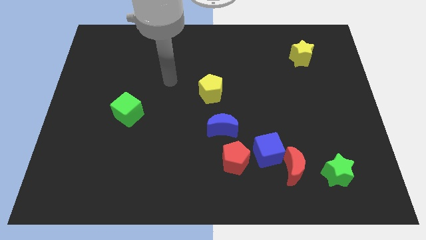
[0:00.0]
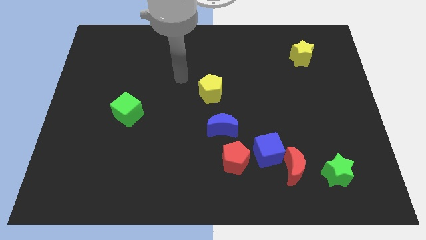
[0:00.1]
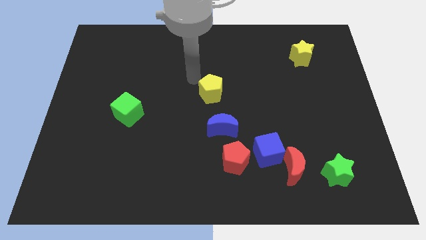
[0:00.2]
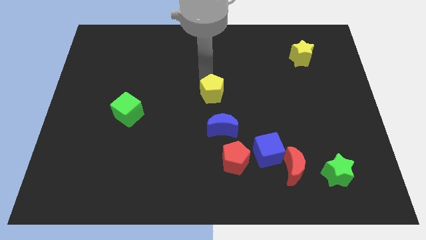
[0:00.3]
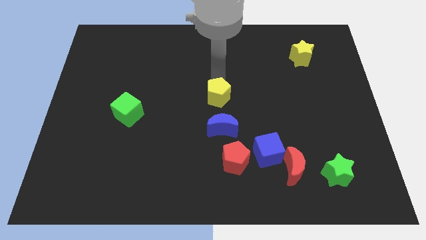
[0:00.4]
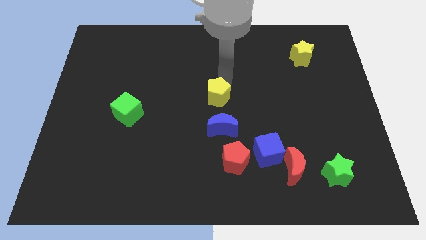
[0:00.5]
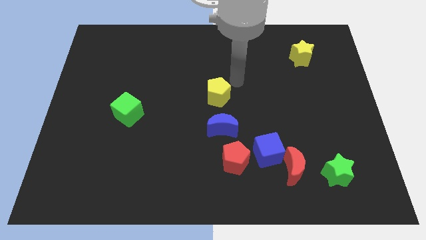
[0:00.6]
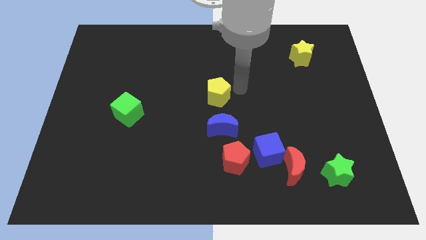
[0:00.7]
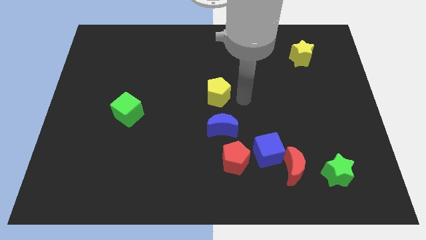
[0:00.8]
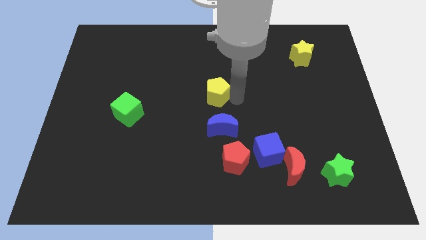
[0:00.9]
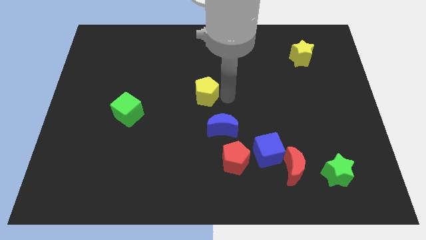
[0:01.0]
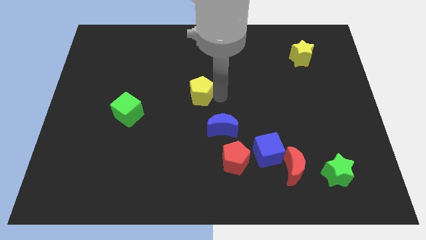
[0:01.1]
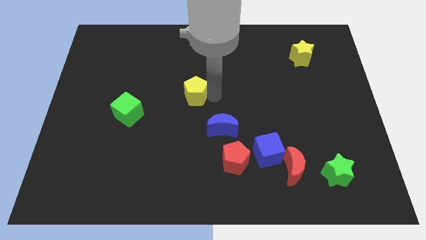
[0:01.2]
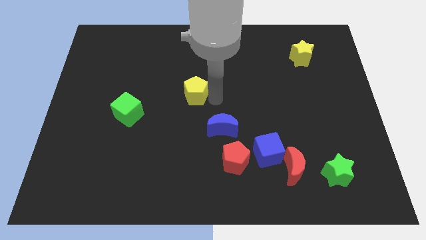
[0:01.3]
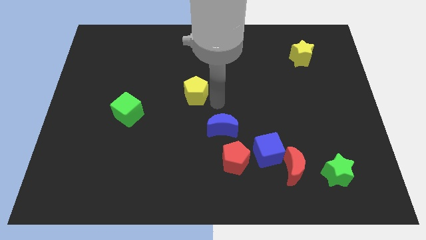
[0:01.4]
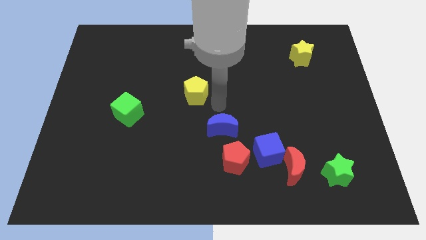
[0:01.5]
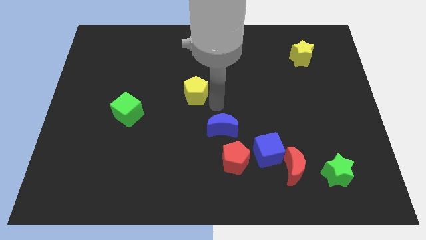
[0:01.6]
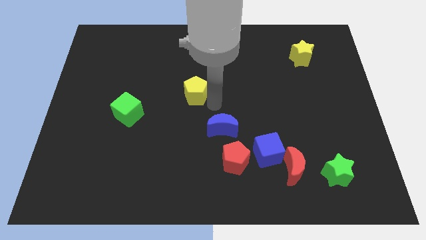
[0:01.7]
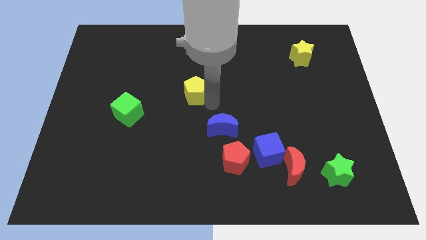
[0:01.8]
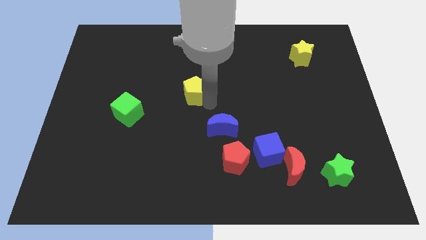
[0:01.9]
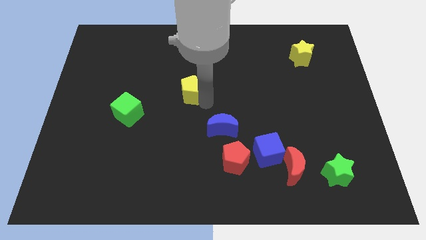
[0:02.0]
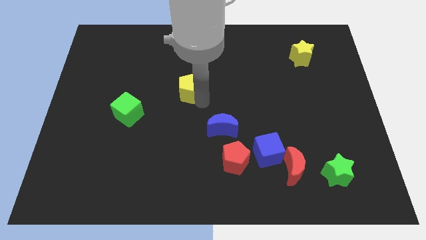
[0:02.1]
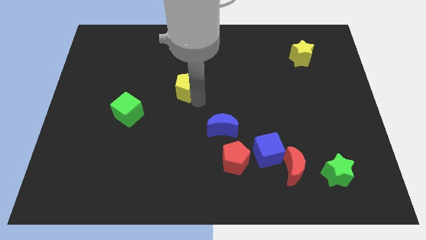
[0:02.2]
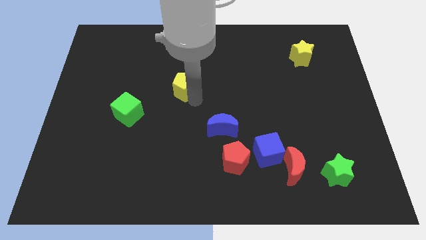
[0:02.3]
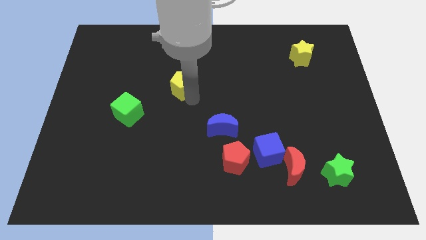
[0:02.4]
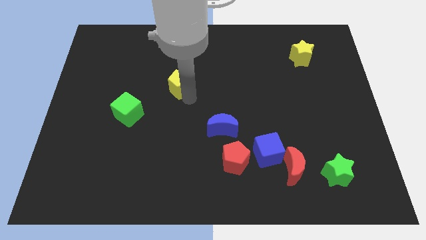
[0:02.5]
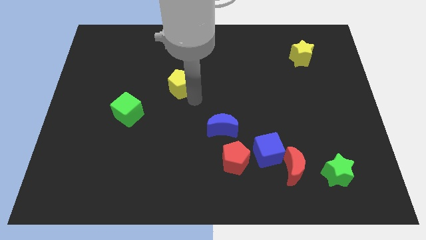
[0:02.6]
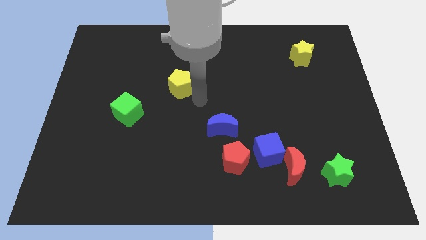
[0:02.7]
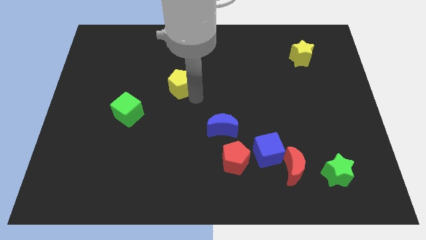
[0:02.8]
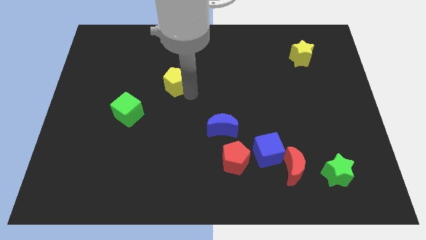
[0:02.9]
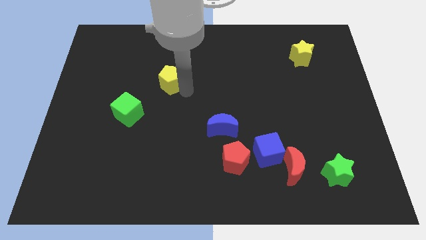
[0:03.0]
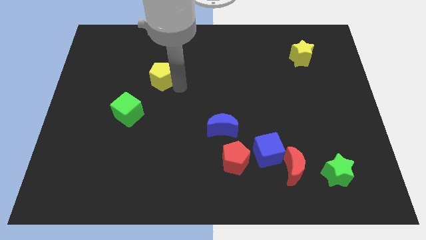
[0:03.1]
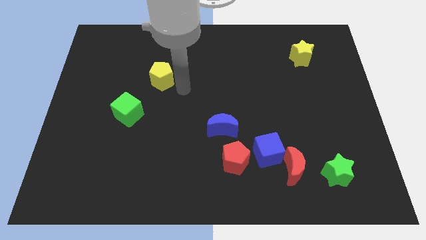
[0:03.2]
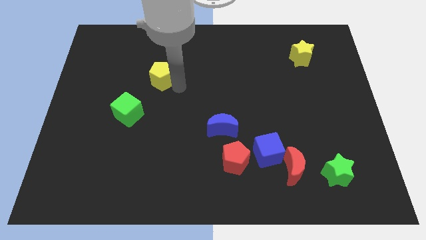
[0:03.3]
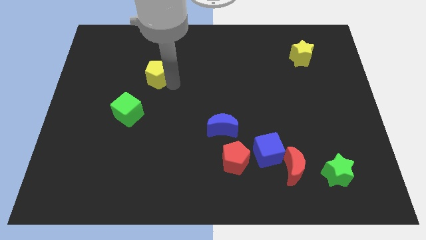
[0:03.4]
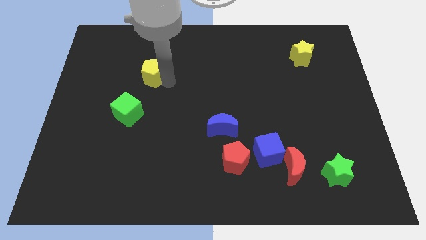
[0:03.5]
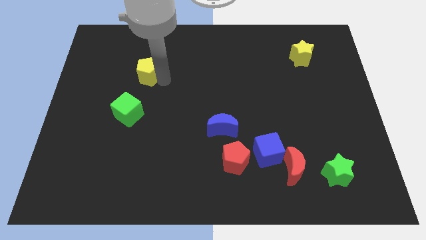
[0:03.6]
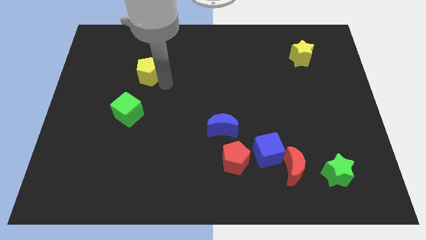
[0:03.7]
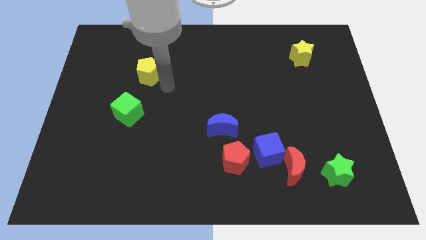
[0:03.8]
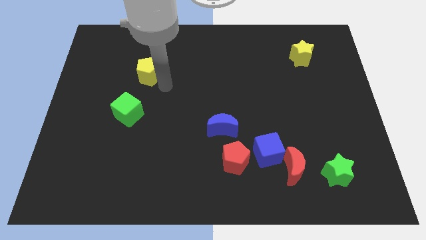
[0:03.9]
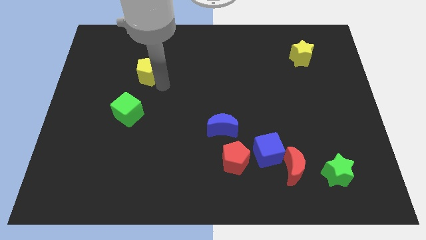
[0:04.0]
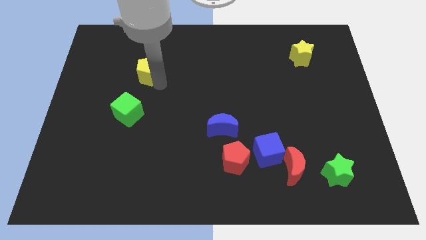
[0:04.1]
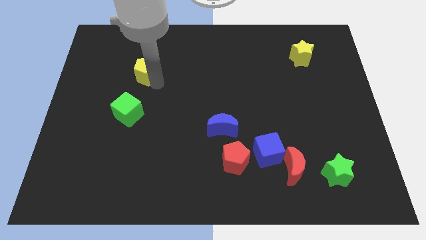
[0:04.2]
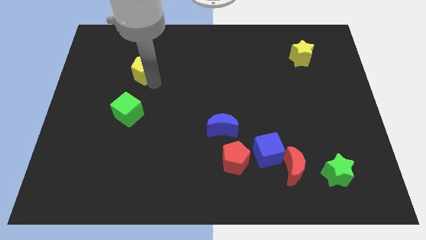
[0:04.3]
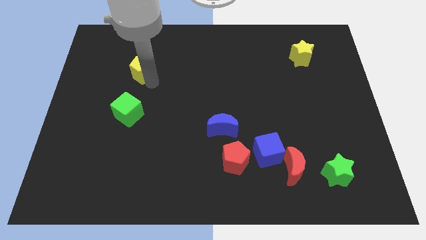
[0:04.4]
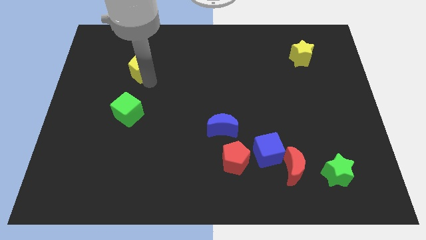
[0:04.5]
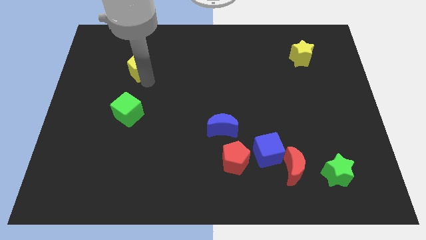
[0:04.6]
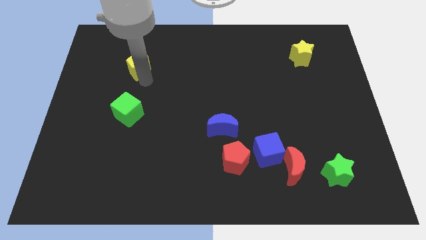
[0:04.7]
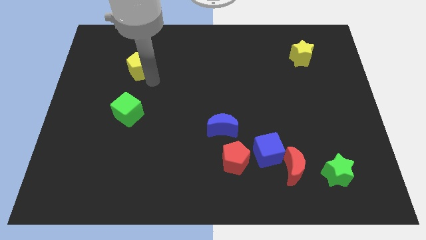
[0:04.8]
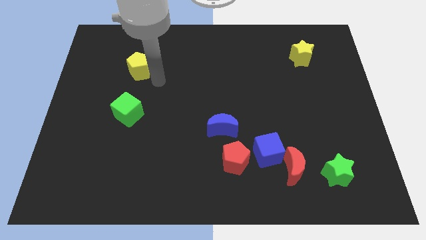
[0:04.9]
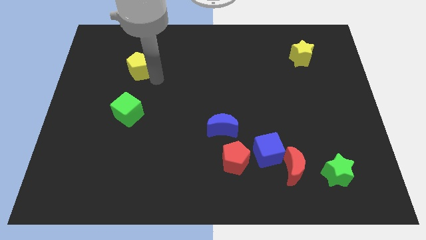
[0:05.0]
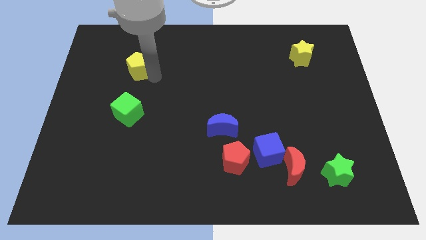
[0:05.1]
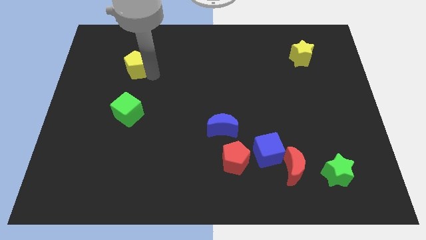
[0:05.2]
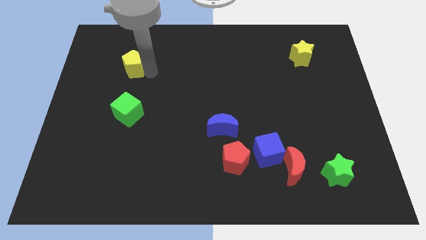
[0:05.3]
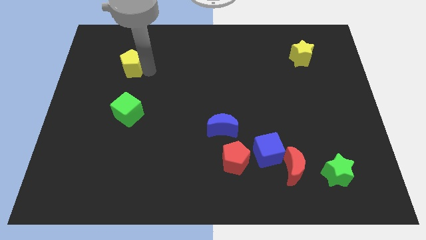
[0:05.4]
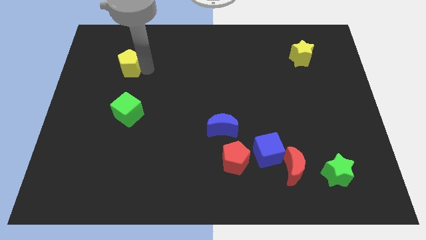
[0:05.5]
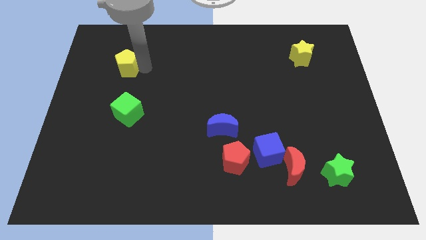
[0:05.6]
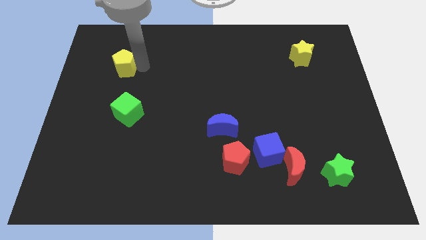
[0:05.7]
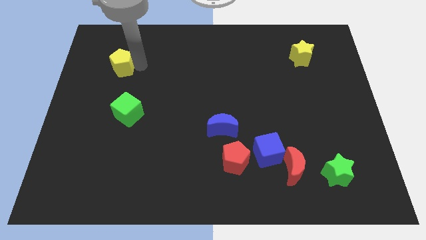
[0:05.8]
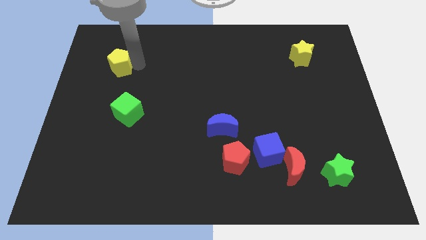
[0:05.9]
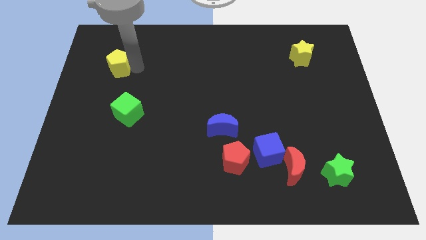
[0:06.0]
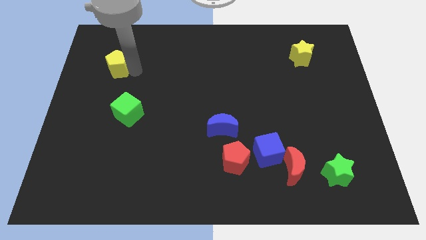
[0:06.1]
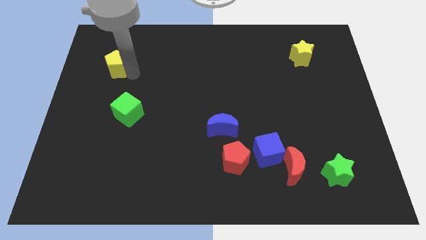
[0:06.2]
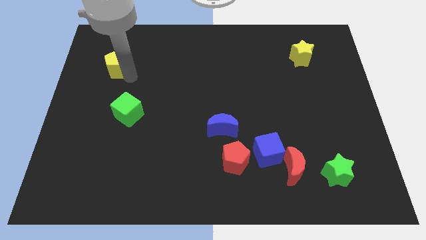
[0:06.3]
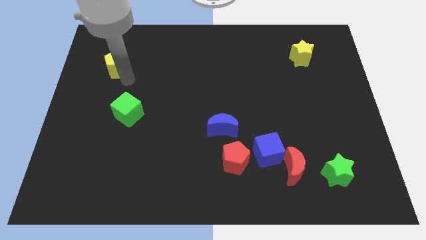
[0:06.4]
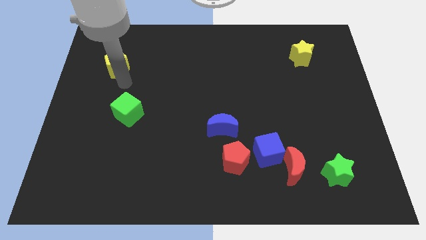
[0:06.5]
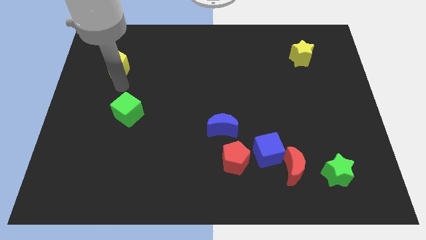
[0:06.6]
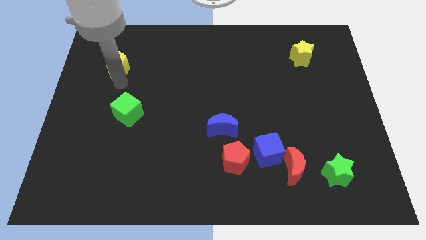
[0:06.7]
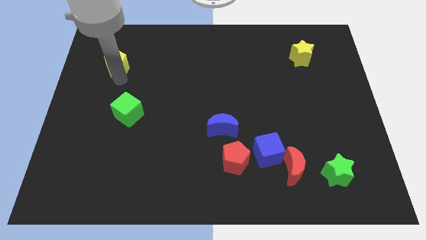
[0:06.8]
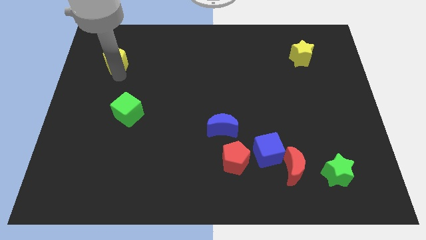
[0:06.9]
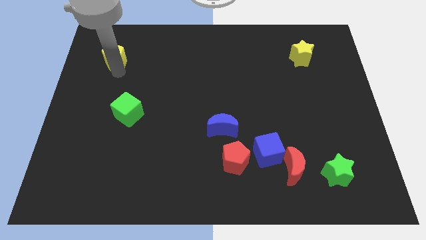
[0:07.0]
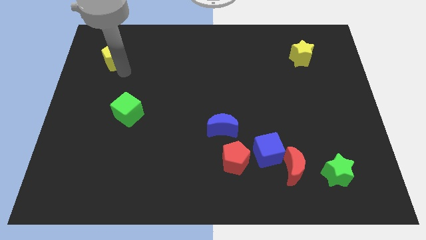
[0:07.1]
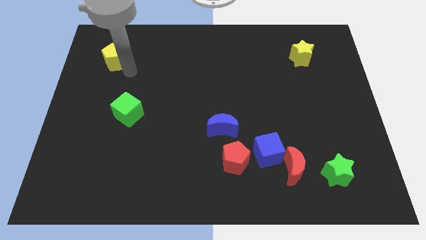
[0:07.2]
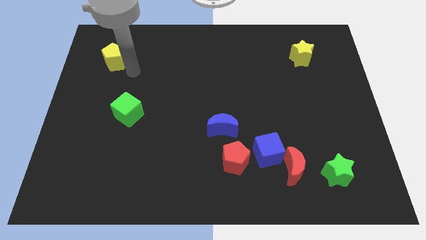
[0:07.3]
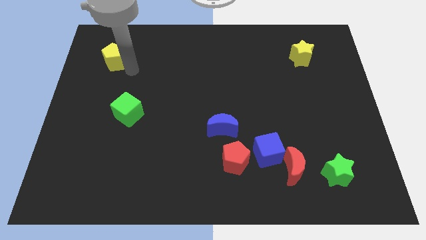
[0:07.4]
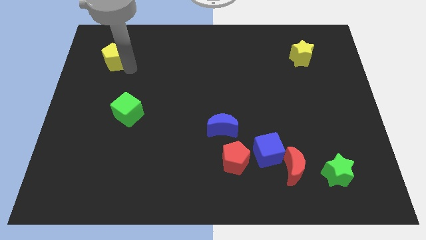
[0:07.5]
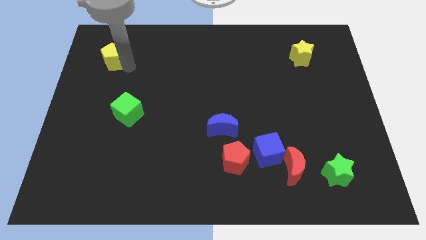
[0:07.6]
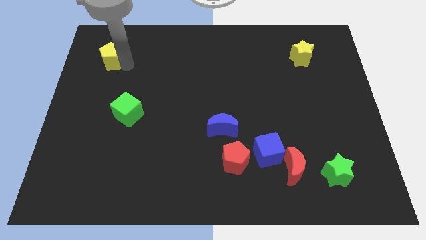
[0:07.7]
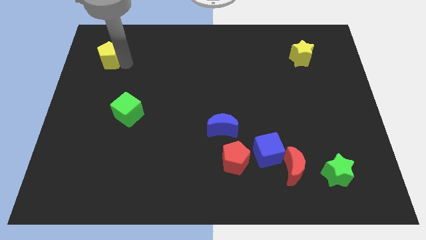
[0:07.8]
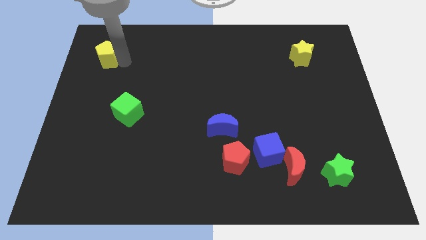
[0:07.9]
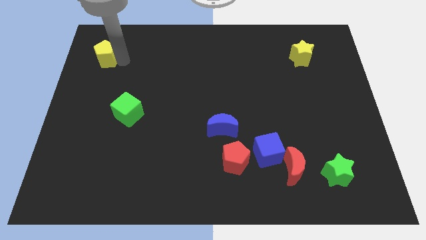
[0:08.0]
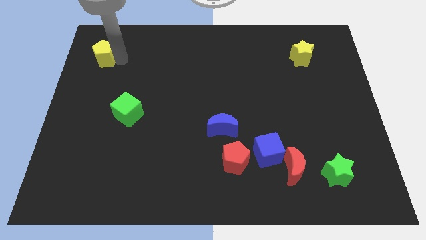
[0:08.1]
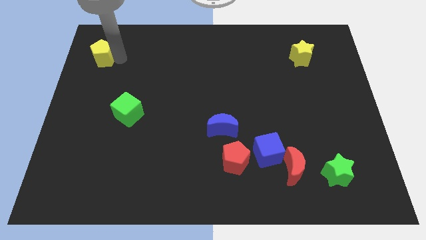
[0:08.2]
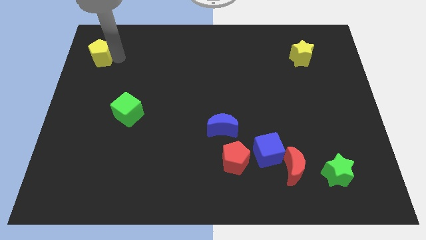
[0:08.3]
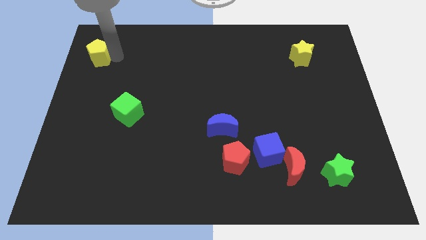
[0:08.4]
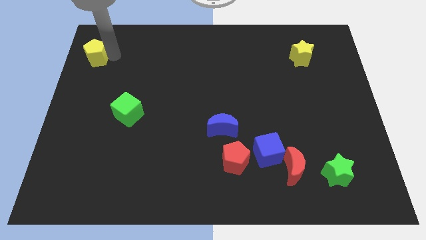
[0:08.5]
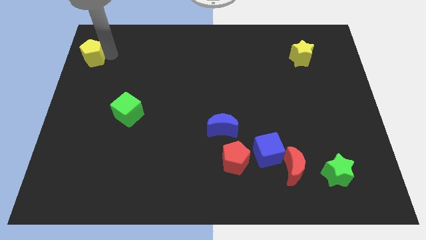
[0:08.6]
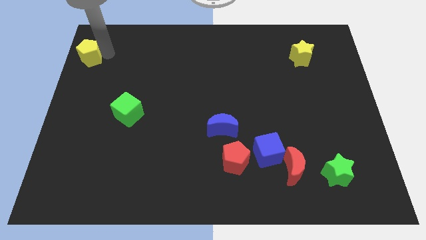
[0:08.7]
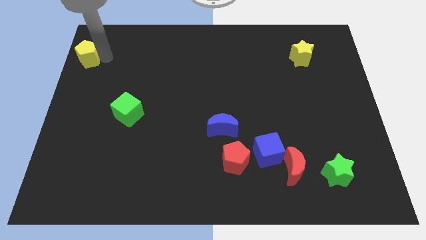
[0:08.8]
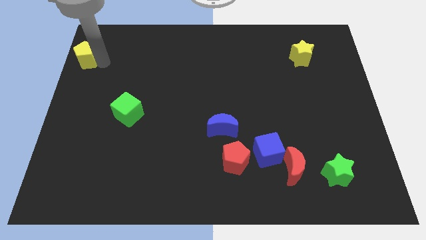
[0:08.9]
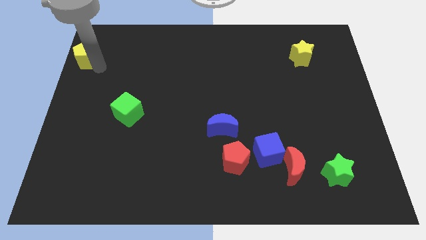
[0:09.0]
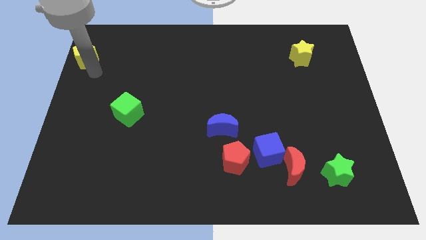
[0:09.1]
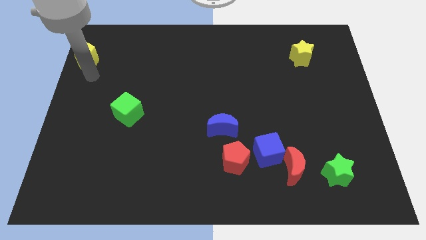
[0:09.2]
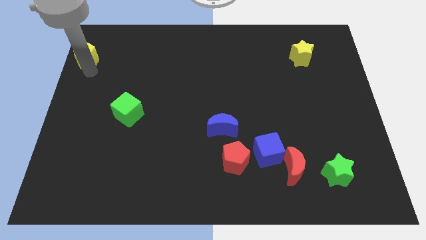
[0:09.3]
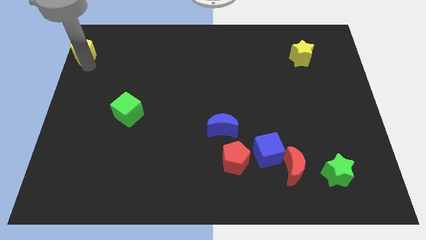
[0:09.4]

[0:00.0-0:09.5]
move the yellow pentagon to the top left of the board
